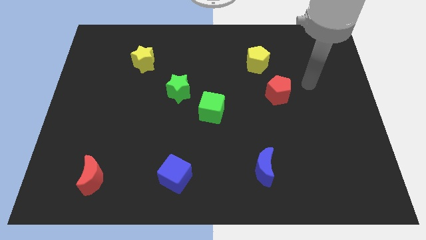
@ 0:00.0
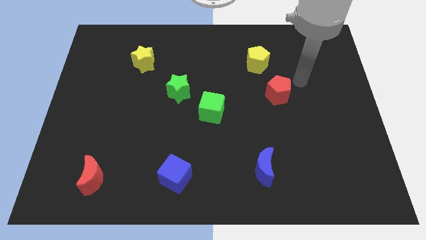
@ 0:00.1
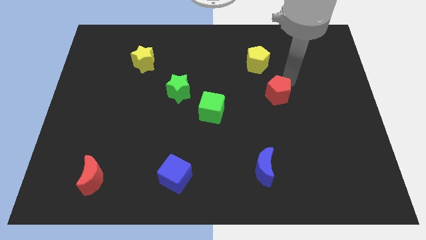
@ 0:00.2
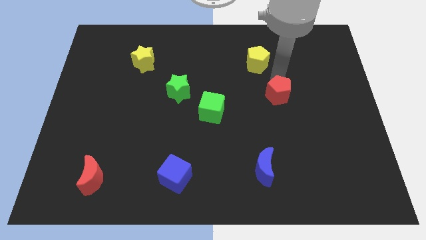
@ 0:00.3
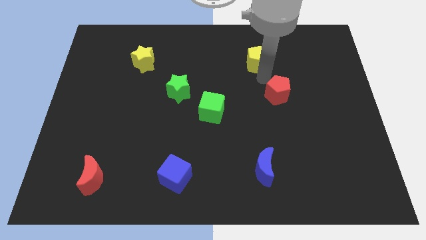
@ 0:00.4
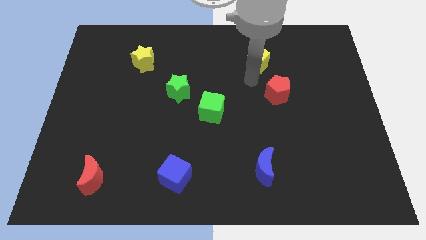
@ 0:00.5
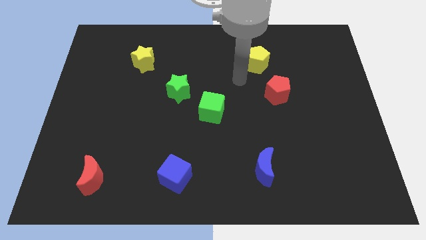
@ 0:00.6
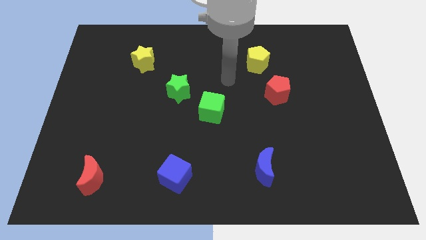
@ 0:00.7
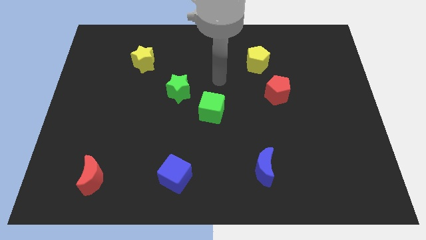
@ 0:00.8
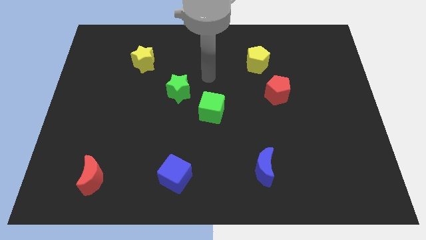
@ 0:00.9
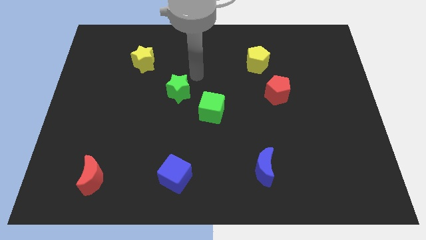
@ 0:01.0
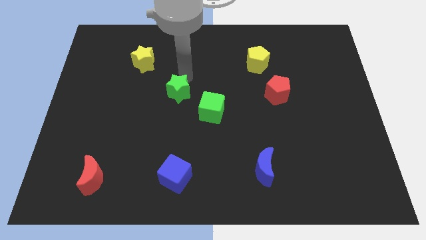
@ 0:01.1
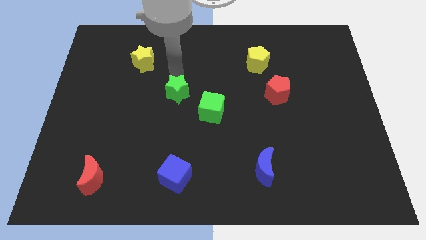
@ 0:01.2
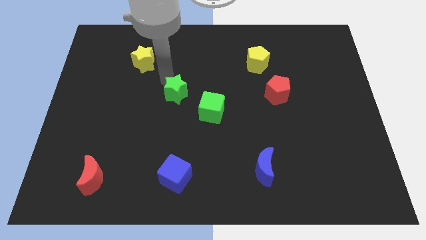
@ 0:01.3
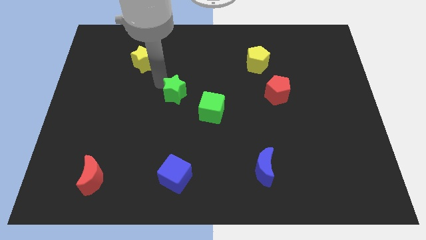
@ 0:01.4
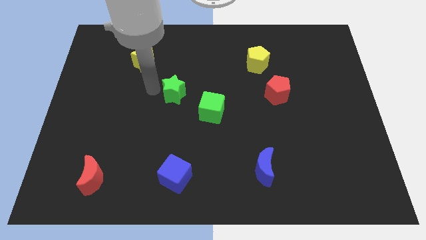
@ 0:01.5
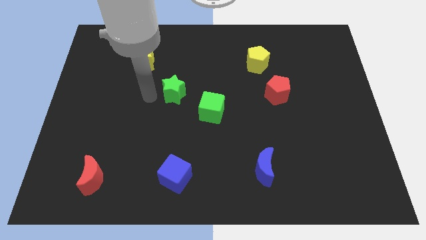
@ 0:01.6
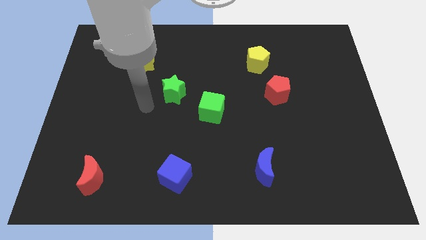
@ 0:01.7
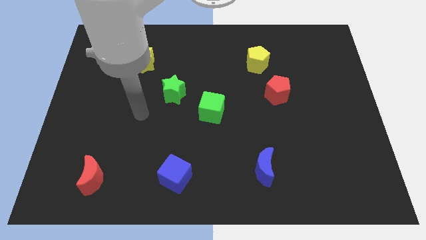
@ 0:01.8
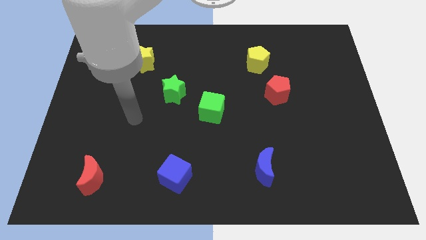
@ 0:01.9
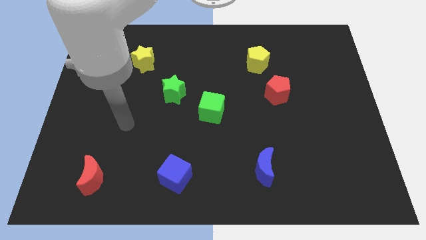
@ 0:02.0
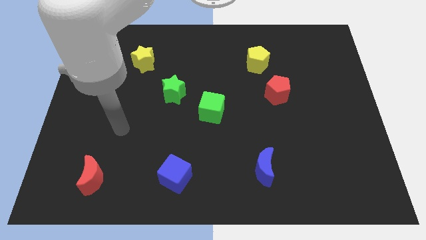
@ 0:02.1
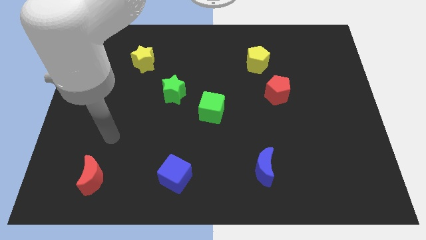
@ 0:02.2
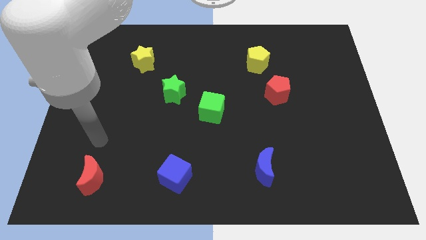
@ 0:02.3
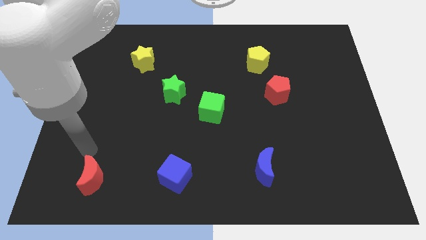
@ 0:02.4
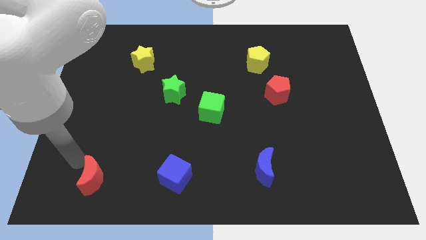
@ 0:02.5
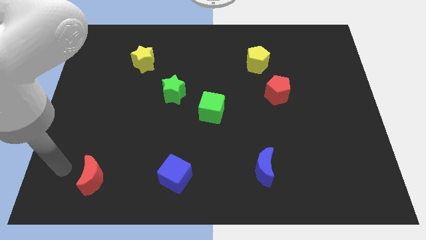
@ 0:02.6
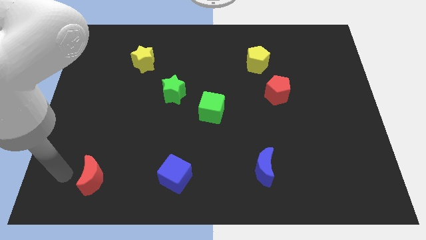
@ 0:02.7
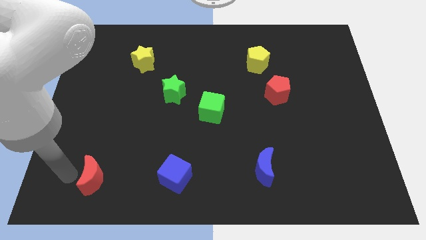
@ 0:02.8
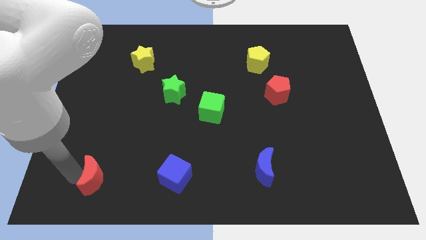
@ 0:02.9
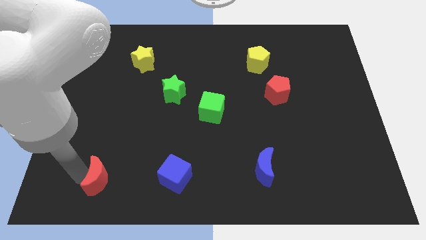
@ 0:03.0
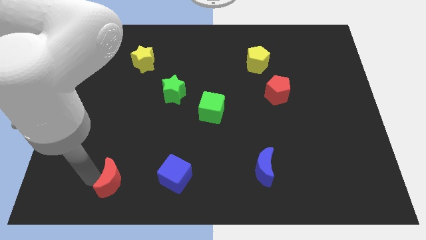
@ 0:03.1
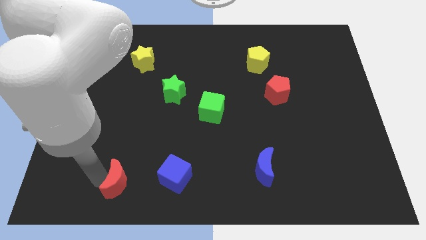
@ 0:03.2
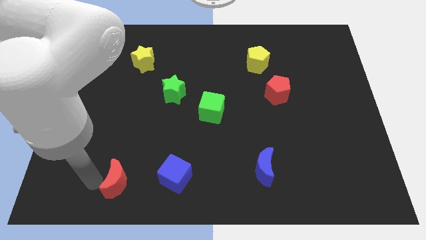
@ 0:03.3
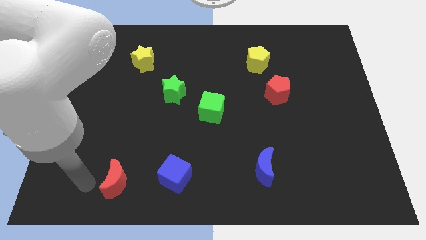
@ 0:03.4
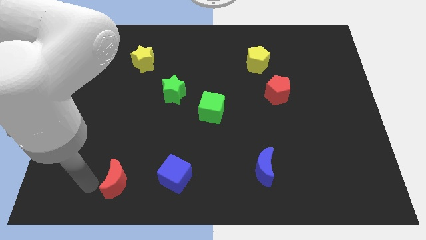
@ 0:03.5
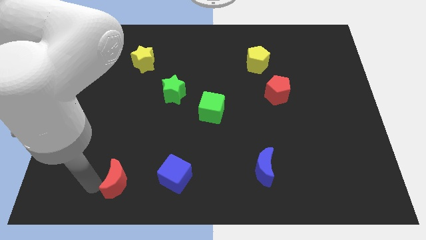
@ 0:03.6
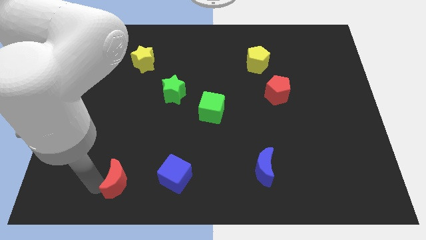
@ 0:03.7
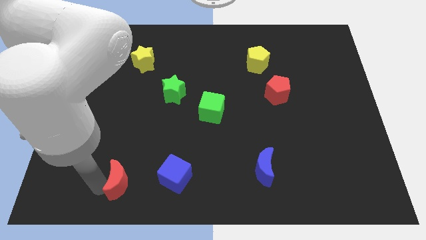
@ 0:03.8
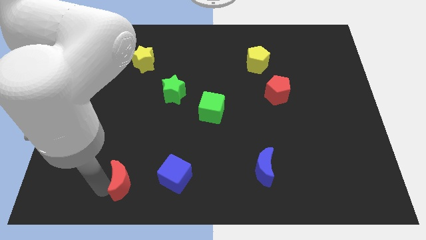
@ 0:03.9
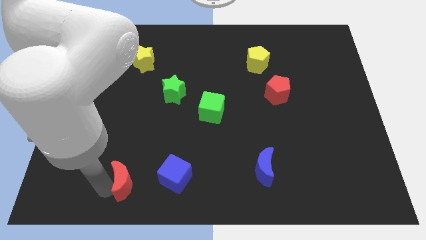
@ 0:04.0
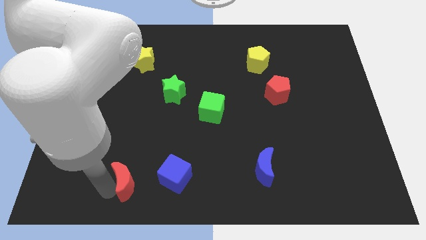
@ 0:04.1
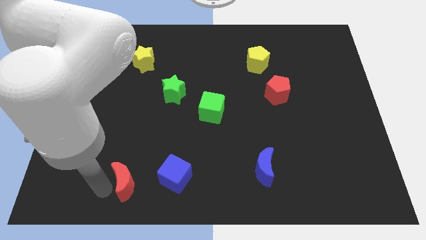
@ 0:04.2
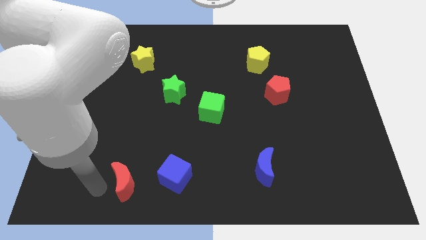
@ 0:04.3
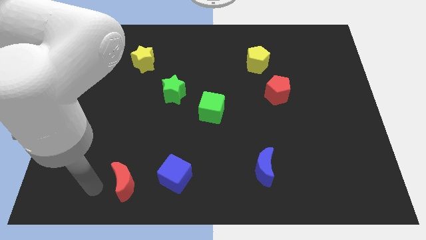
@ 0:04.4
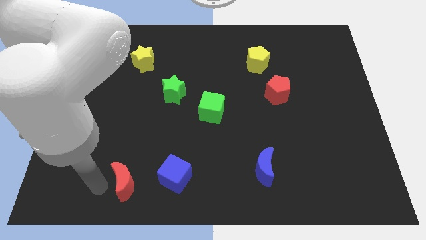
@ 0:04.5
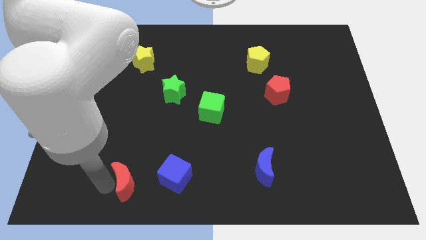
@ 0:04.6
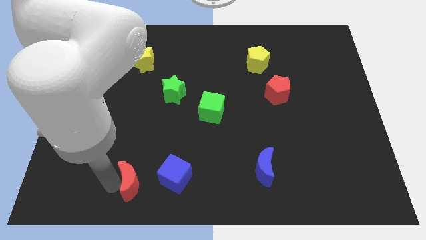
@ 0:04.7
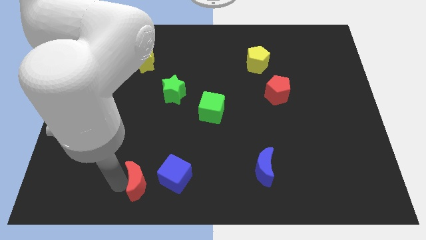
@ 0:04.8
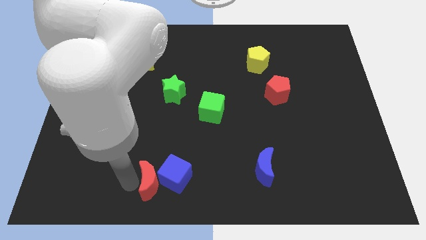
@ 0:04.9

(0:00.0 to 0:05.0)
move the red moon next to the blue cube

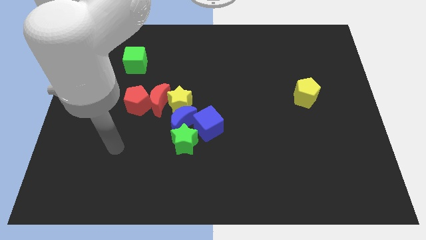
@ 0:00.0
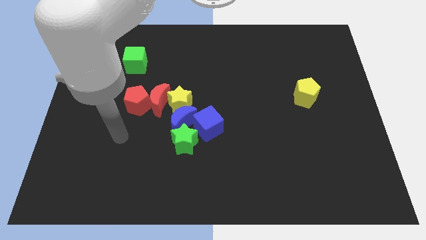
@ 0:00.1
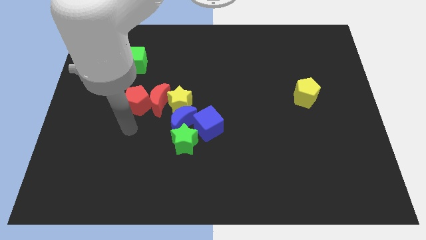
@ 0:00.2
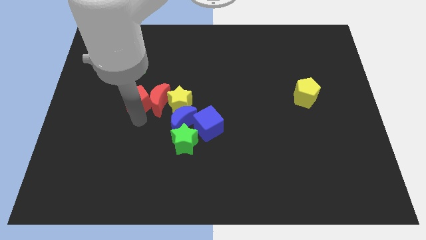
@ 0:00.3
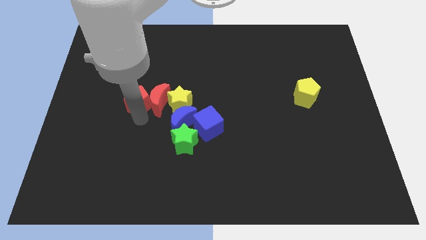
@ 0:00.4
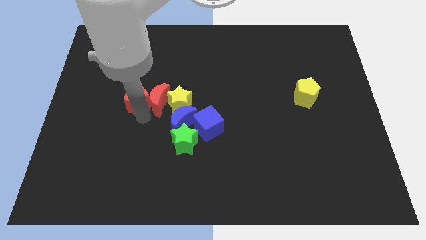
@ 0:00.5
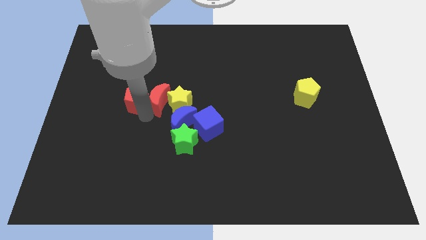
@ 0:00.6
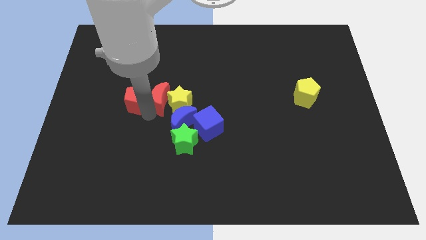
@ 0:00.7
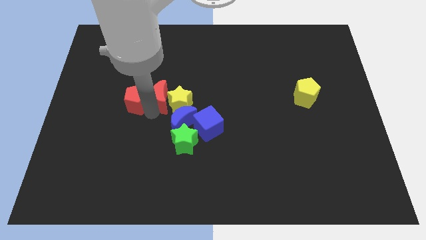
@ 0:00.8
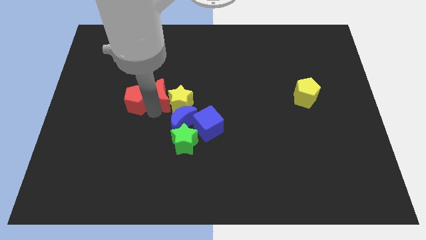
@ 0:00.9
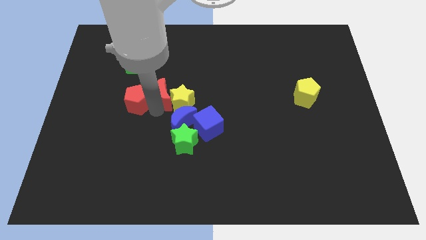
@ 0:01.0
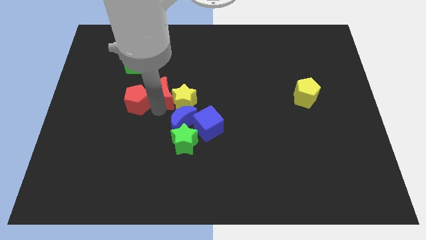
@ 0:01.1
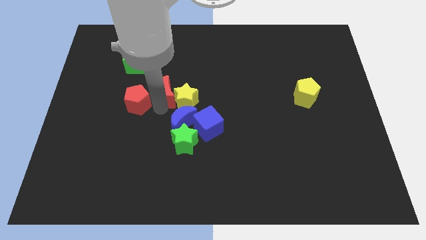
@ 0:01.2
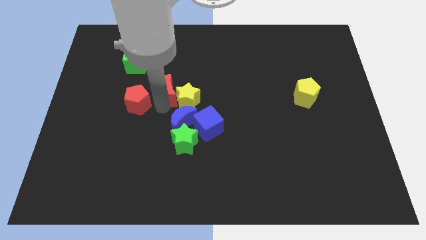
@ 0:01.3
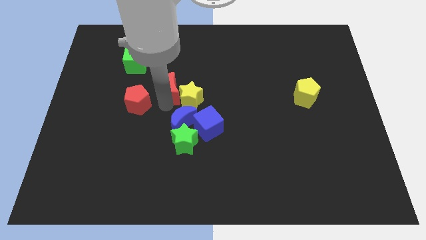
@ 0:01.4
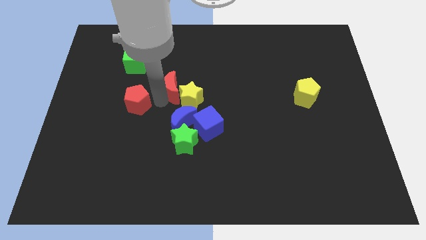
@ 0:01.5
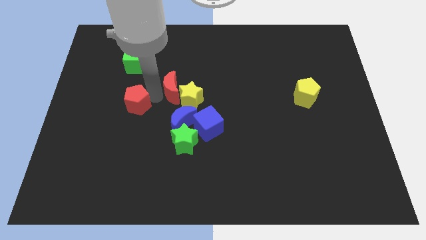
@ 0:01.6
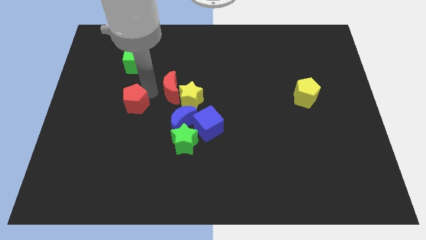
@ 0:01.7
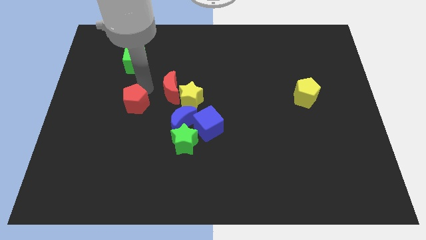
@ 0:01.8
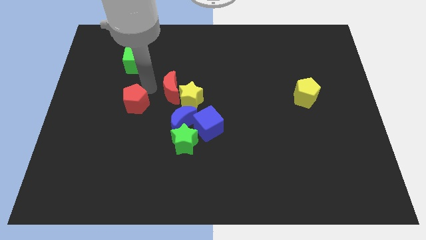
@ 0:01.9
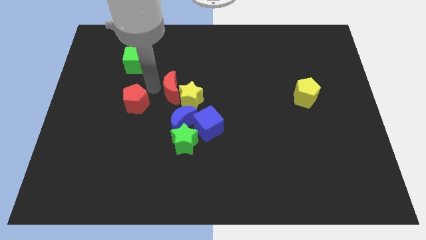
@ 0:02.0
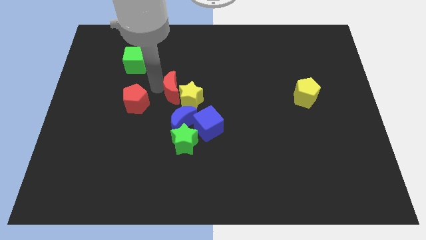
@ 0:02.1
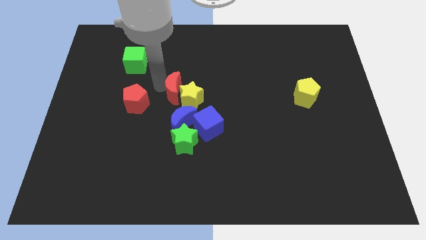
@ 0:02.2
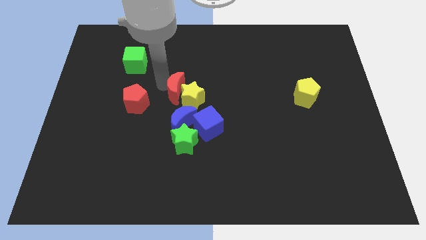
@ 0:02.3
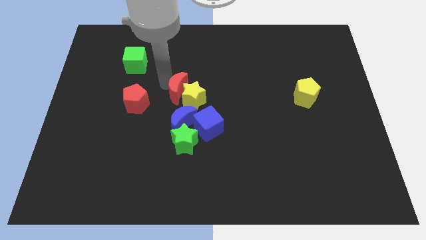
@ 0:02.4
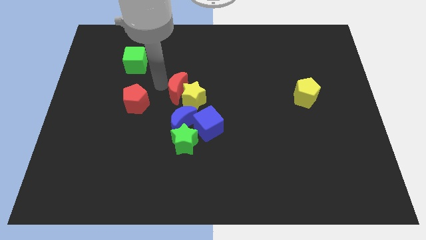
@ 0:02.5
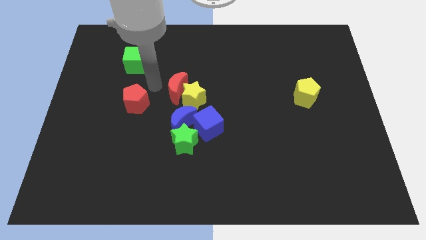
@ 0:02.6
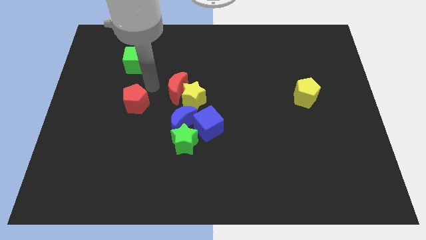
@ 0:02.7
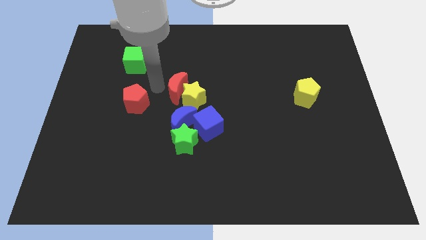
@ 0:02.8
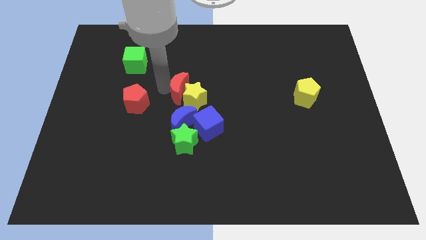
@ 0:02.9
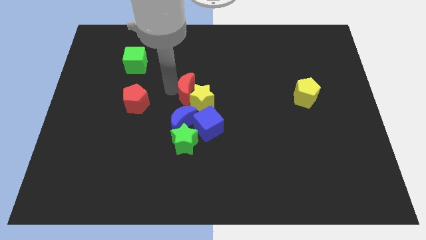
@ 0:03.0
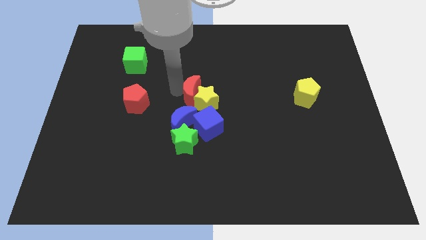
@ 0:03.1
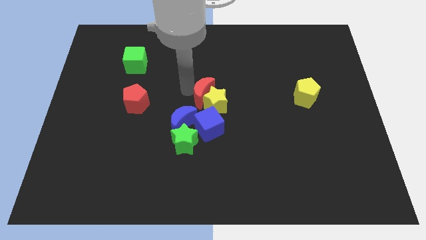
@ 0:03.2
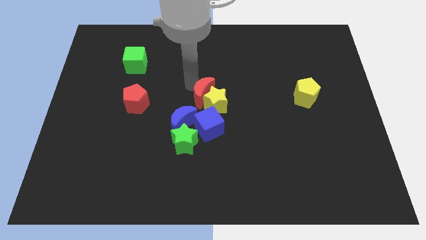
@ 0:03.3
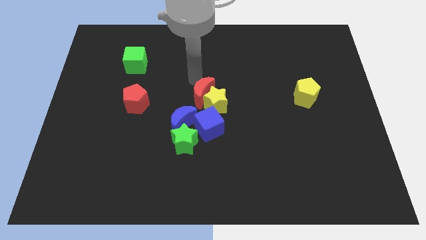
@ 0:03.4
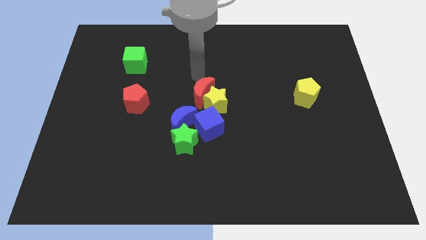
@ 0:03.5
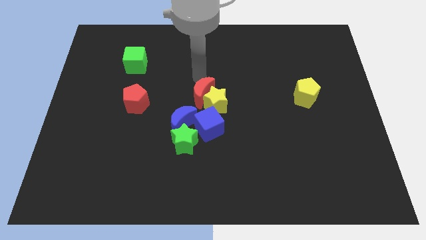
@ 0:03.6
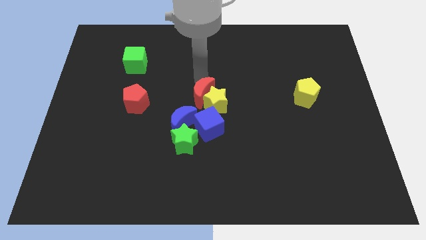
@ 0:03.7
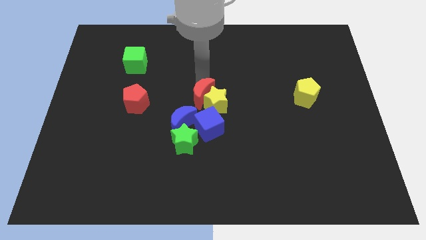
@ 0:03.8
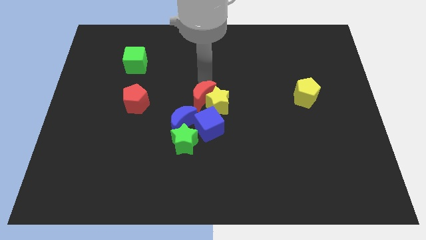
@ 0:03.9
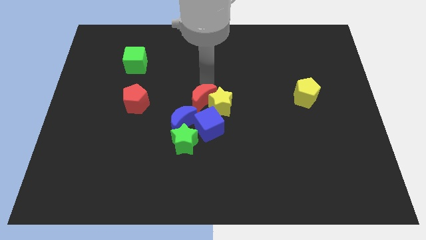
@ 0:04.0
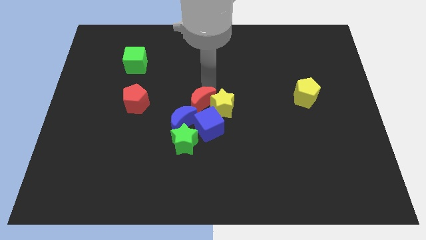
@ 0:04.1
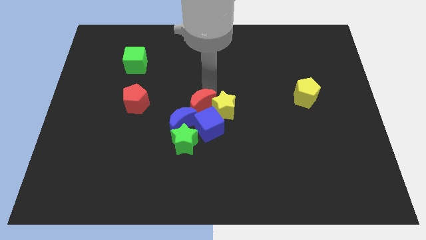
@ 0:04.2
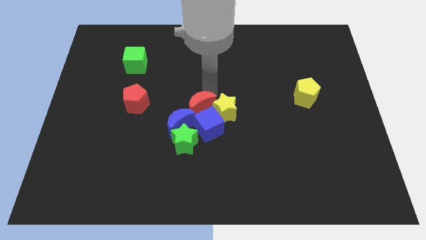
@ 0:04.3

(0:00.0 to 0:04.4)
slide the red moon next to the blue cube
